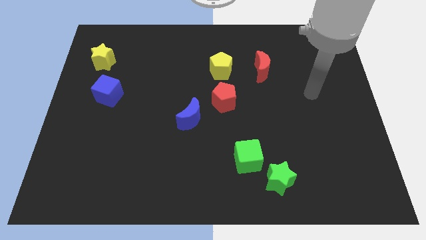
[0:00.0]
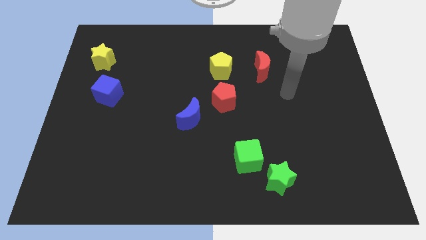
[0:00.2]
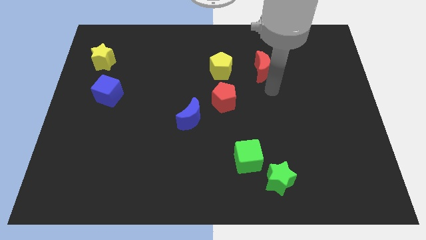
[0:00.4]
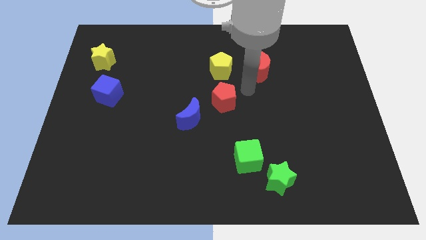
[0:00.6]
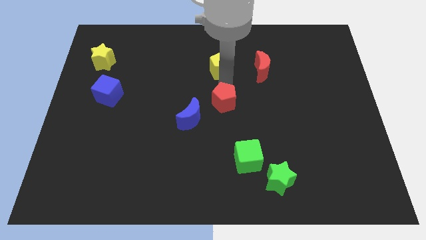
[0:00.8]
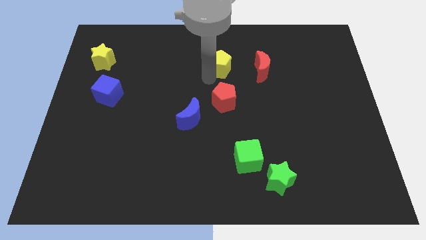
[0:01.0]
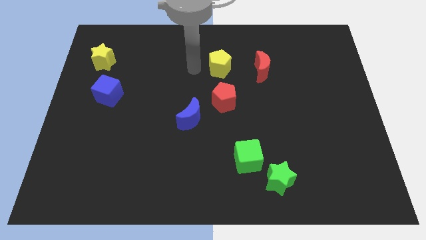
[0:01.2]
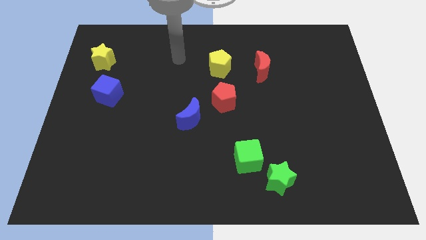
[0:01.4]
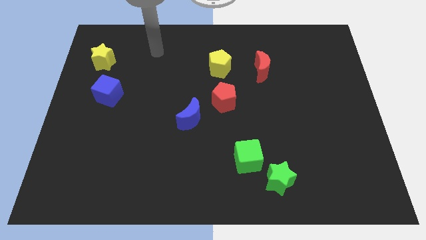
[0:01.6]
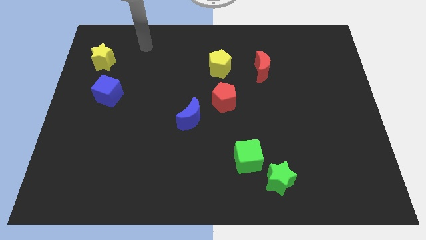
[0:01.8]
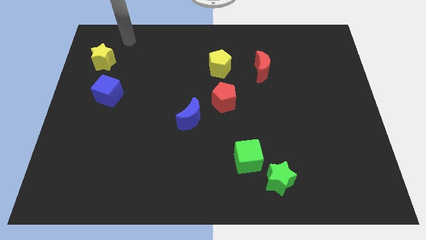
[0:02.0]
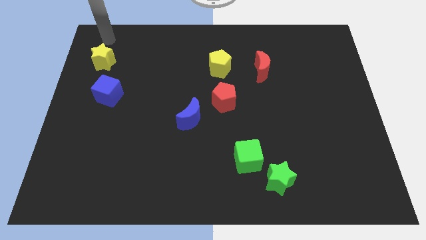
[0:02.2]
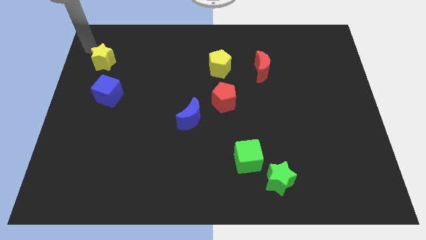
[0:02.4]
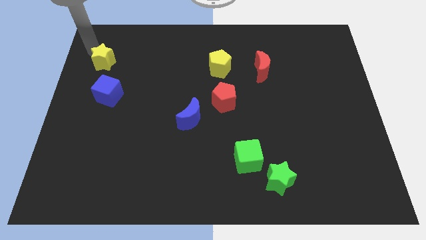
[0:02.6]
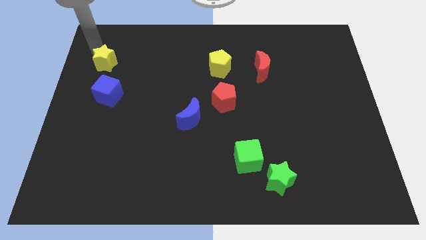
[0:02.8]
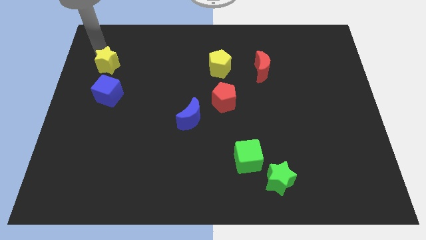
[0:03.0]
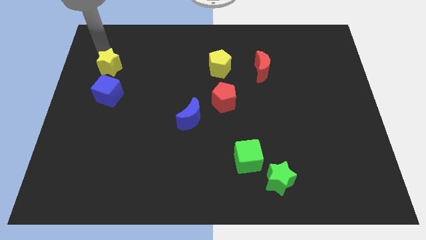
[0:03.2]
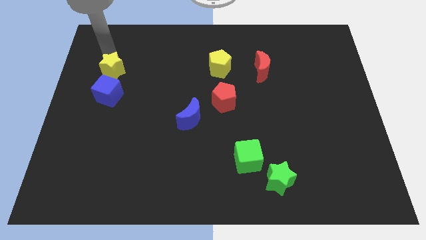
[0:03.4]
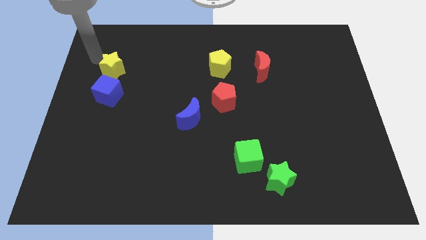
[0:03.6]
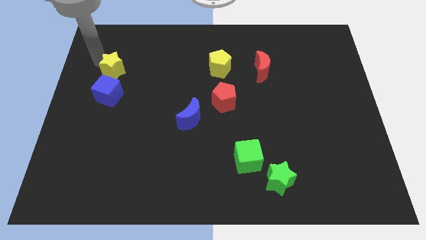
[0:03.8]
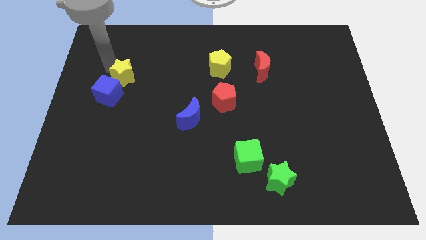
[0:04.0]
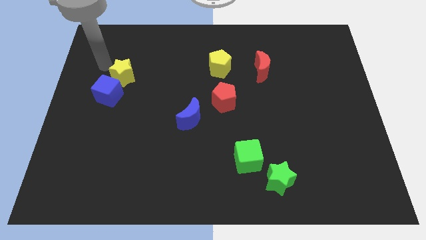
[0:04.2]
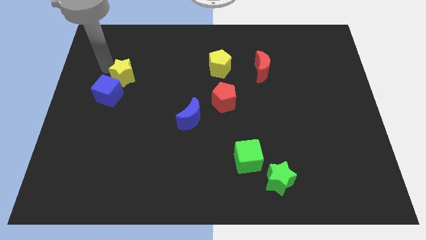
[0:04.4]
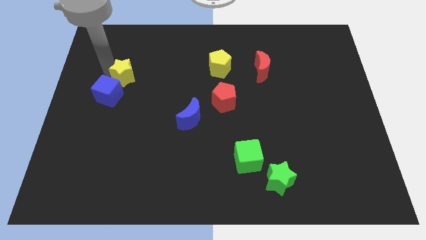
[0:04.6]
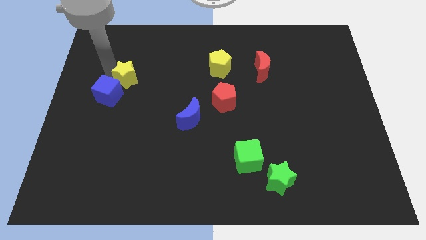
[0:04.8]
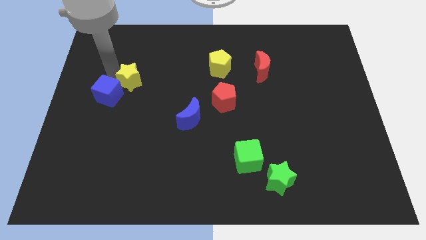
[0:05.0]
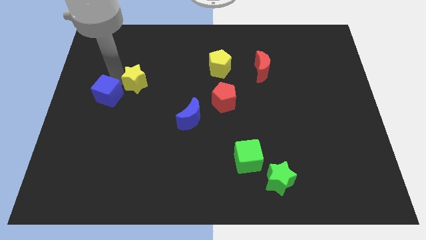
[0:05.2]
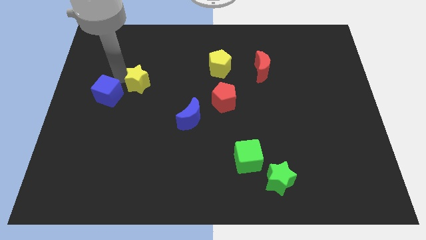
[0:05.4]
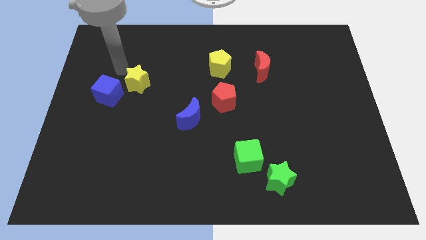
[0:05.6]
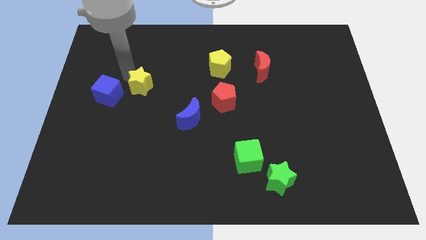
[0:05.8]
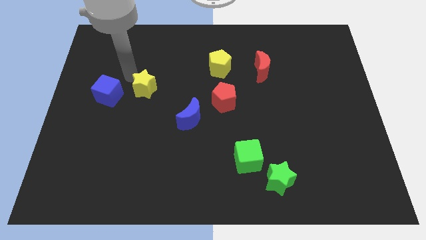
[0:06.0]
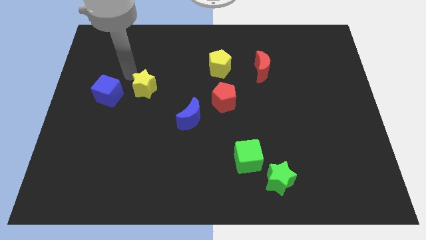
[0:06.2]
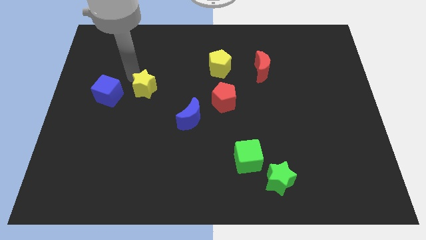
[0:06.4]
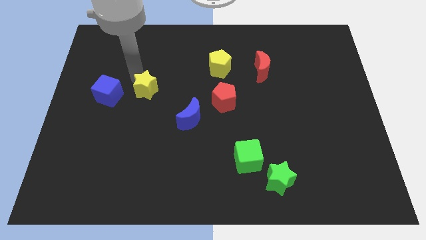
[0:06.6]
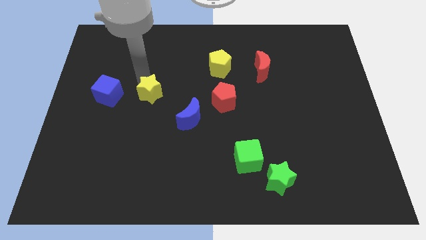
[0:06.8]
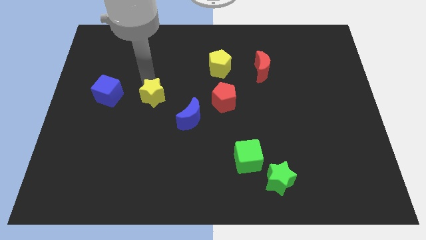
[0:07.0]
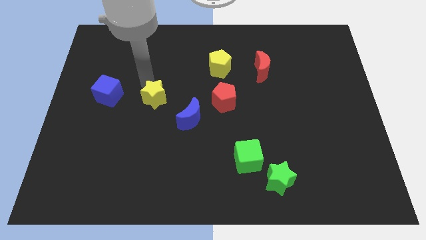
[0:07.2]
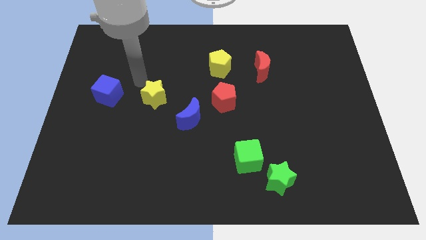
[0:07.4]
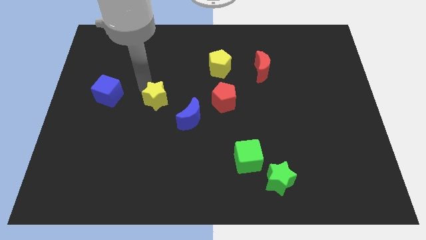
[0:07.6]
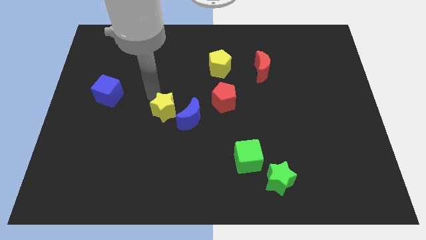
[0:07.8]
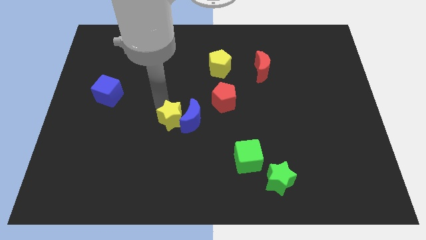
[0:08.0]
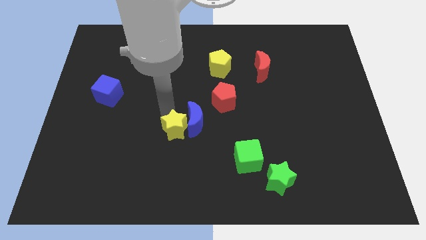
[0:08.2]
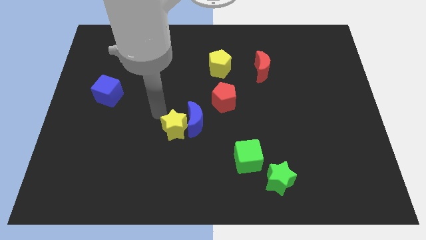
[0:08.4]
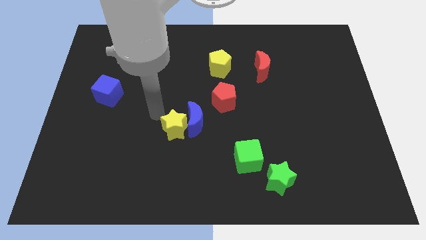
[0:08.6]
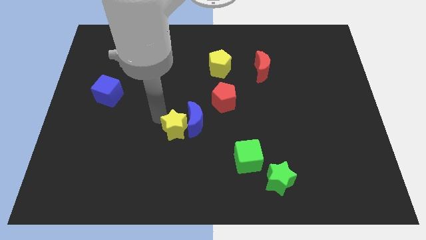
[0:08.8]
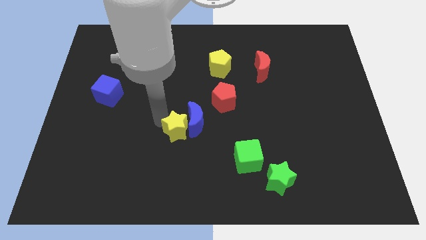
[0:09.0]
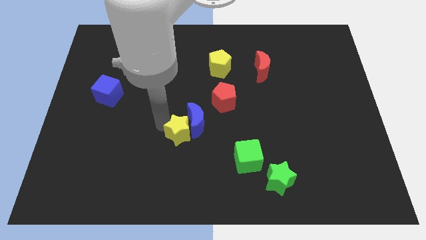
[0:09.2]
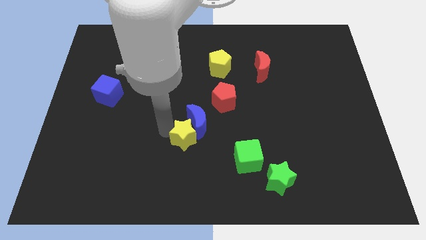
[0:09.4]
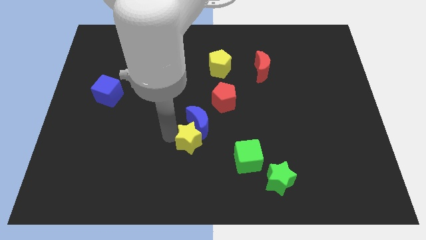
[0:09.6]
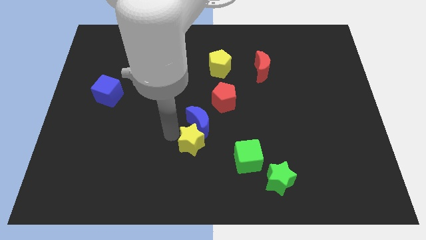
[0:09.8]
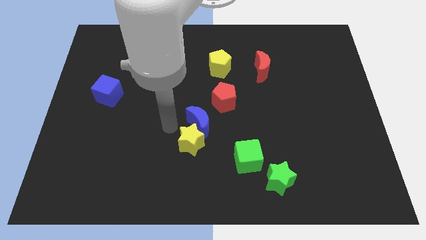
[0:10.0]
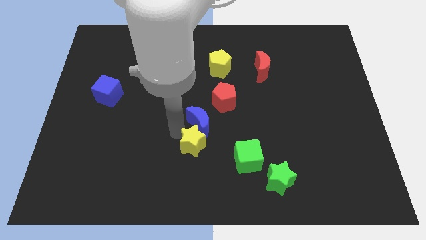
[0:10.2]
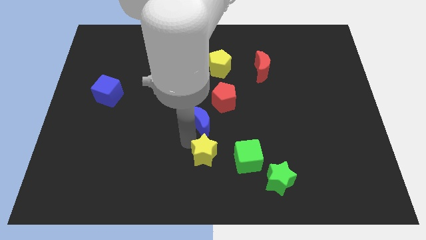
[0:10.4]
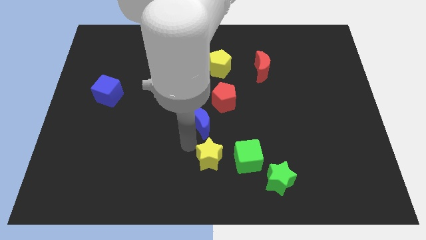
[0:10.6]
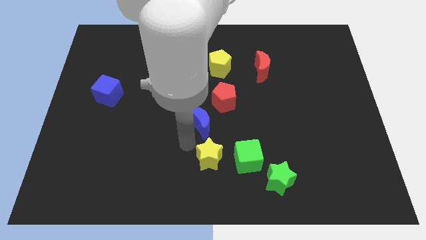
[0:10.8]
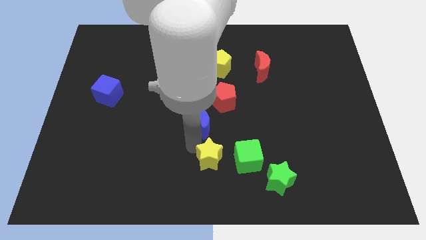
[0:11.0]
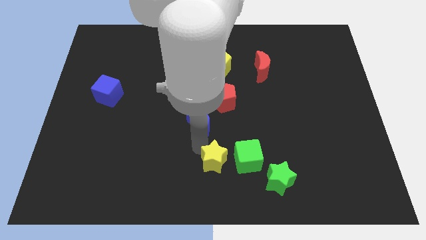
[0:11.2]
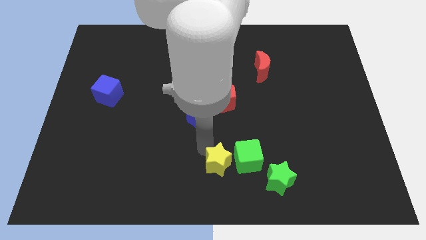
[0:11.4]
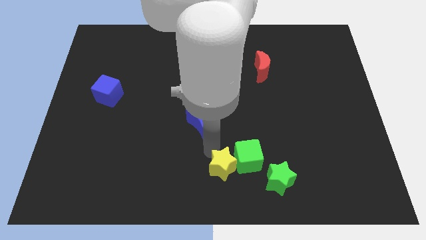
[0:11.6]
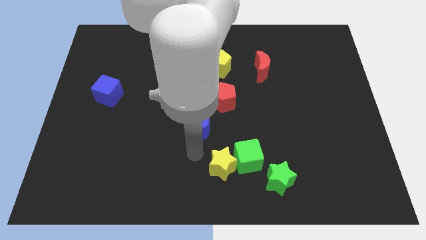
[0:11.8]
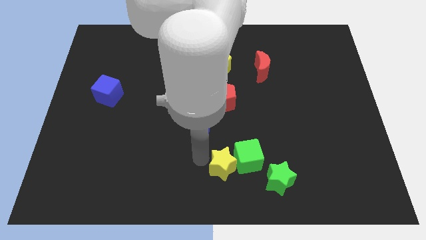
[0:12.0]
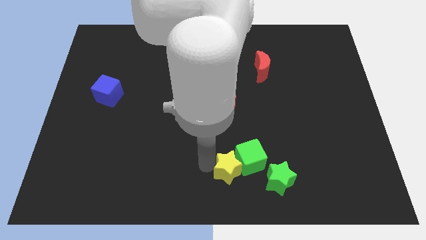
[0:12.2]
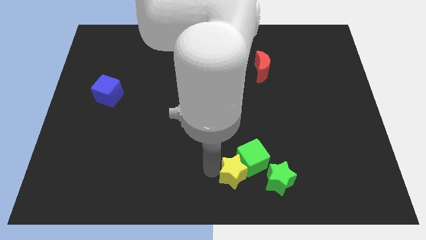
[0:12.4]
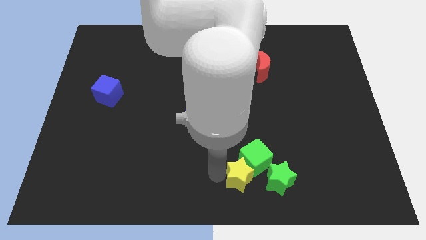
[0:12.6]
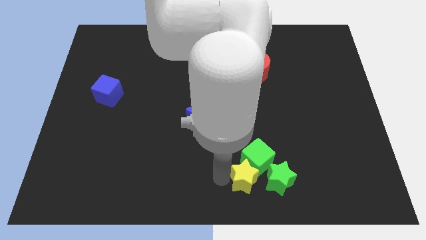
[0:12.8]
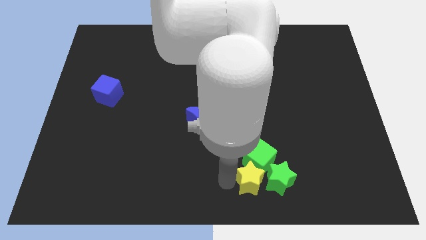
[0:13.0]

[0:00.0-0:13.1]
push the yellow star to the green star

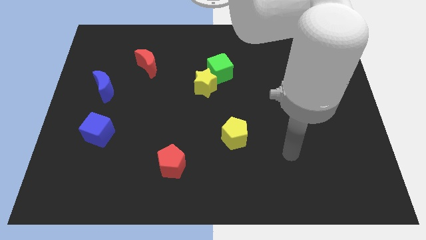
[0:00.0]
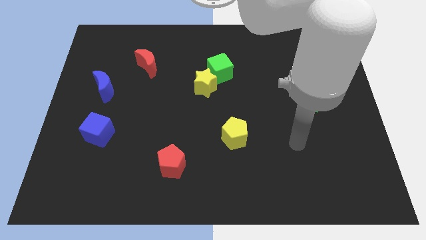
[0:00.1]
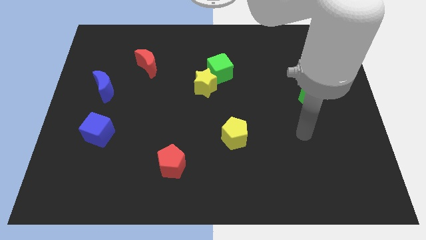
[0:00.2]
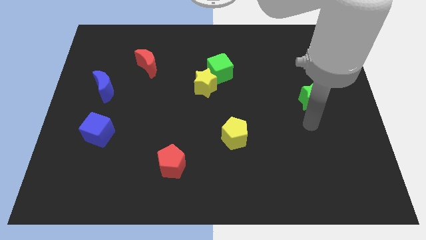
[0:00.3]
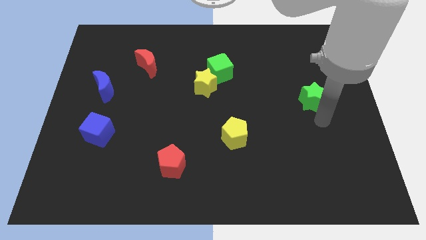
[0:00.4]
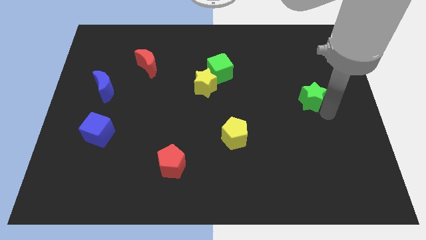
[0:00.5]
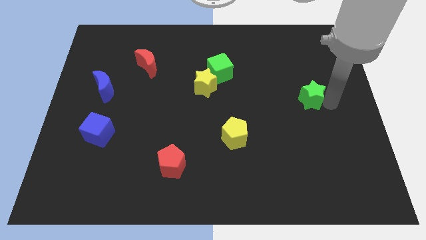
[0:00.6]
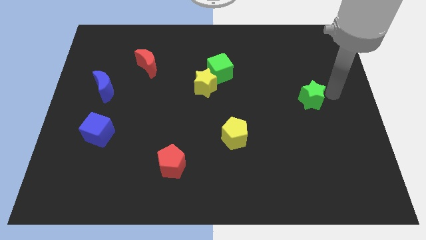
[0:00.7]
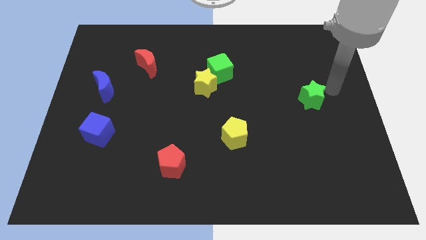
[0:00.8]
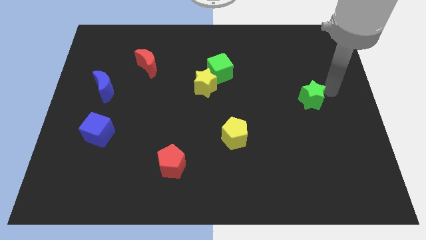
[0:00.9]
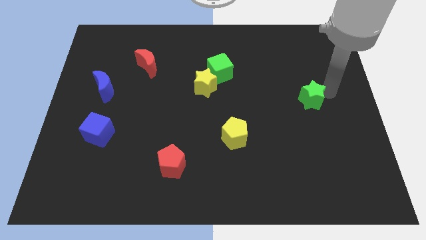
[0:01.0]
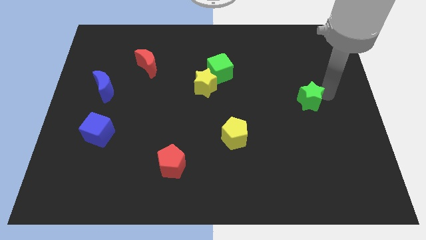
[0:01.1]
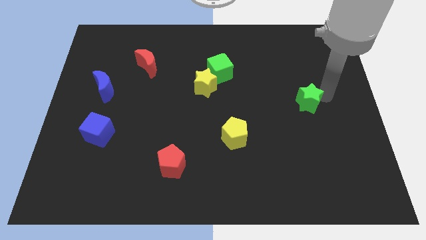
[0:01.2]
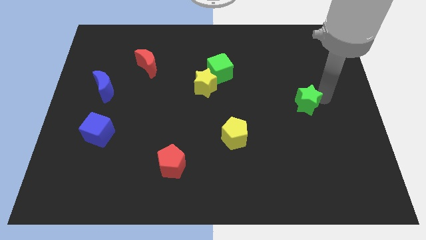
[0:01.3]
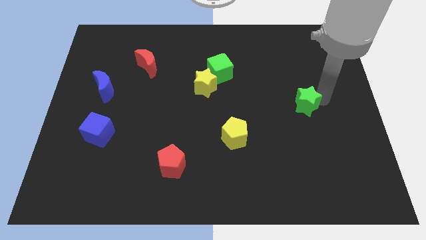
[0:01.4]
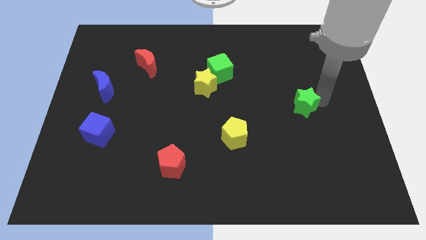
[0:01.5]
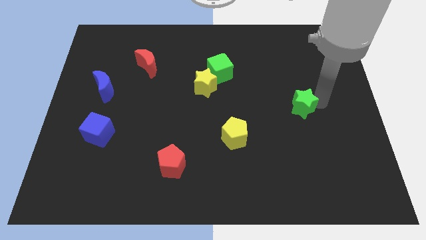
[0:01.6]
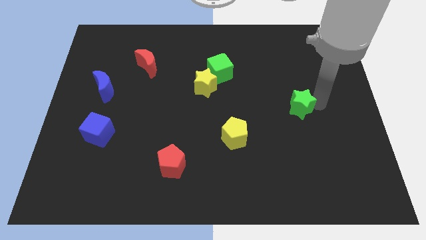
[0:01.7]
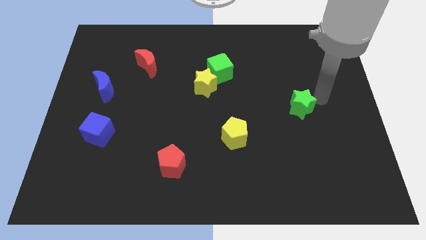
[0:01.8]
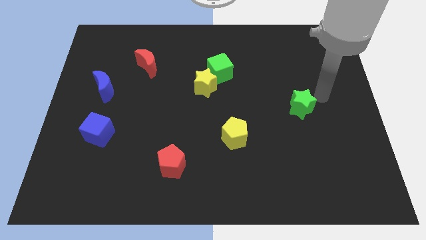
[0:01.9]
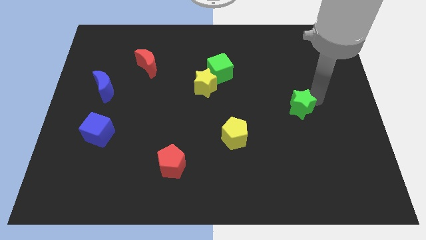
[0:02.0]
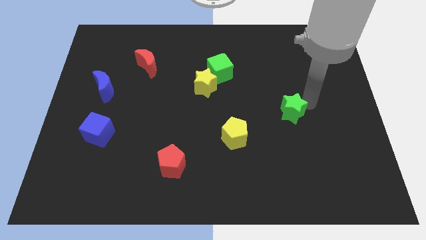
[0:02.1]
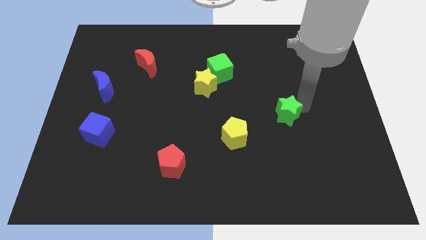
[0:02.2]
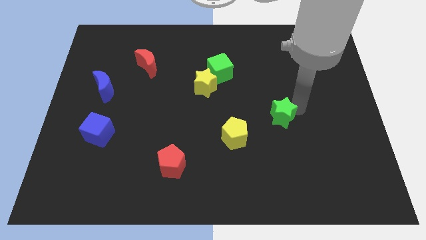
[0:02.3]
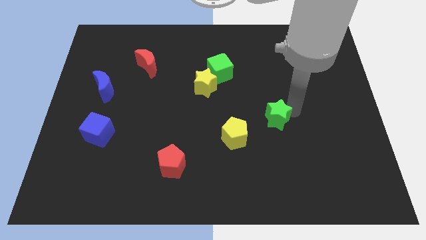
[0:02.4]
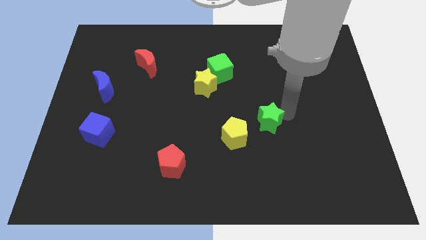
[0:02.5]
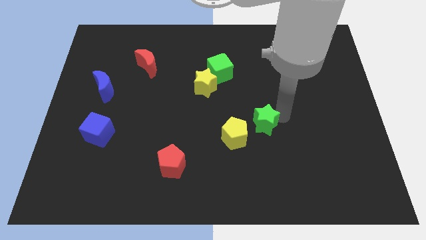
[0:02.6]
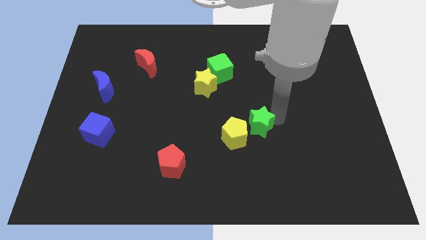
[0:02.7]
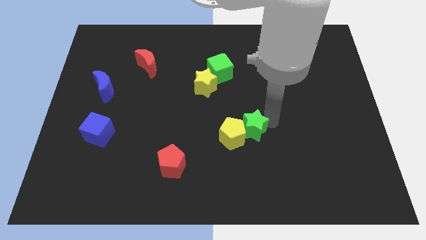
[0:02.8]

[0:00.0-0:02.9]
push the green star close to the yellow pentagon
